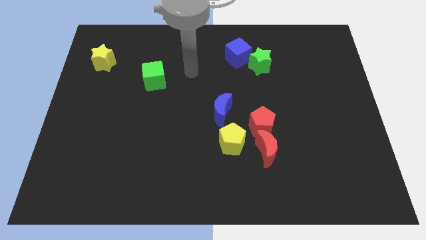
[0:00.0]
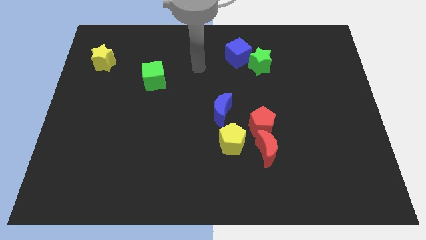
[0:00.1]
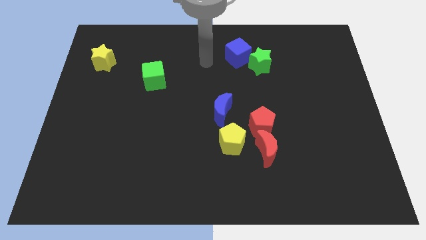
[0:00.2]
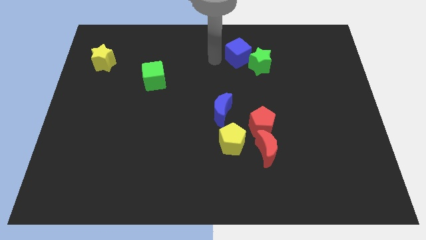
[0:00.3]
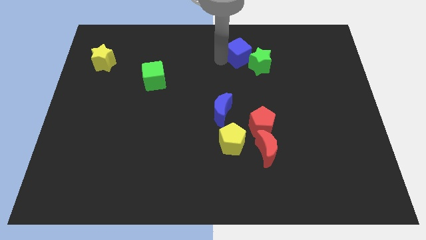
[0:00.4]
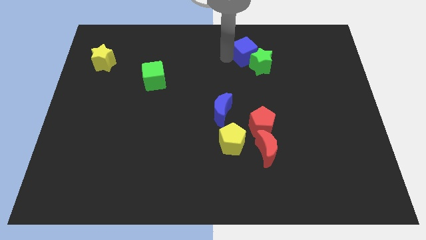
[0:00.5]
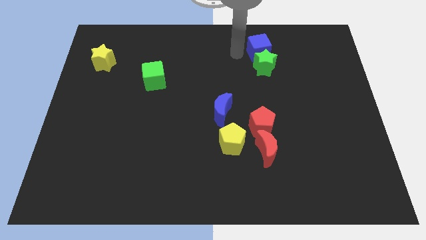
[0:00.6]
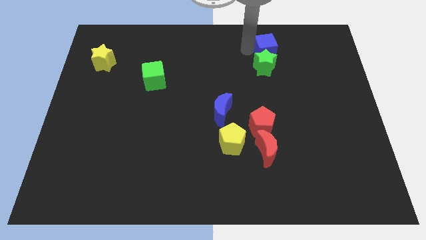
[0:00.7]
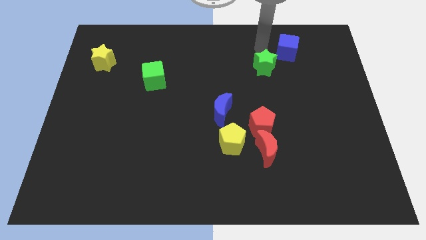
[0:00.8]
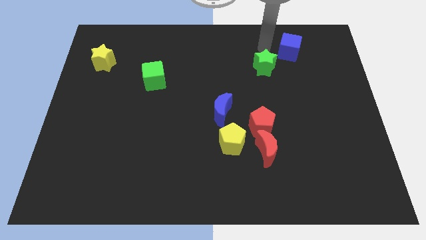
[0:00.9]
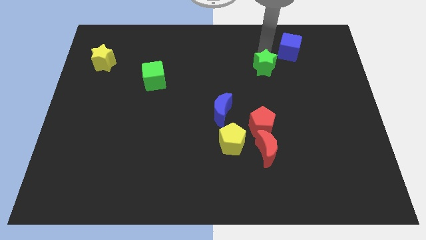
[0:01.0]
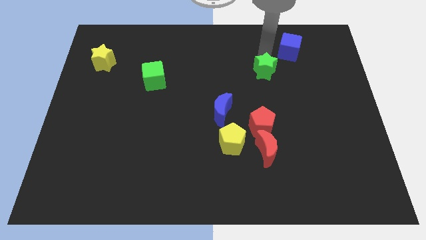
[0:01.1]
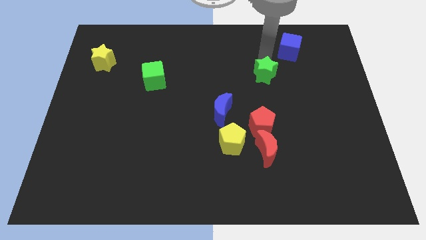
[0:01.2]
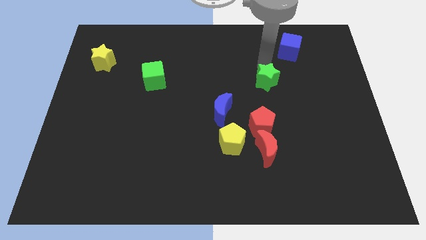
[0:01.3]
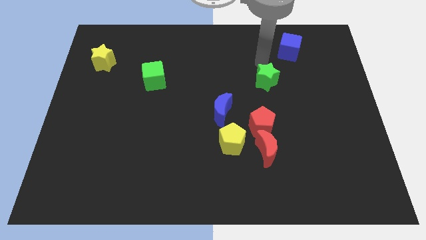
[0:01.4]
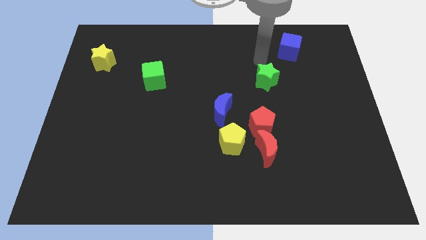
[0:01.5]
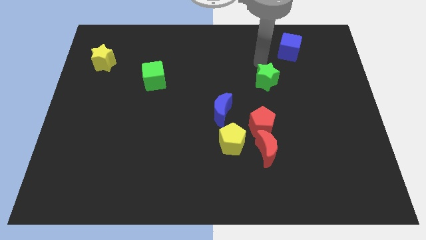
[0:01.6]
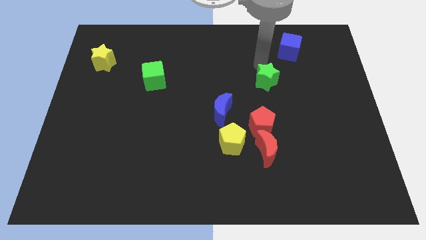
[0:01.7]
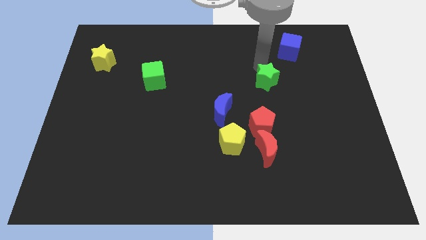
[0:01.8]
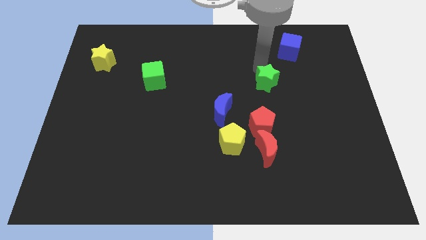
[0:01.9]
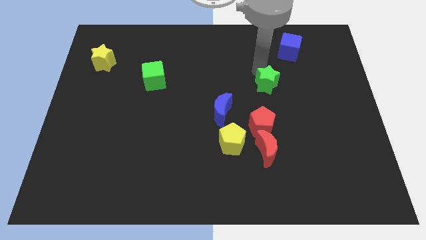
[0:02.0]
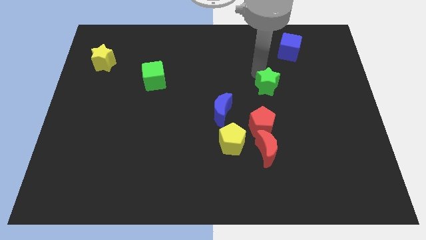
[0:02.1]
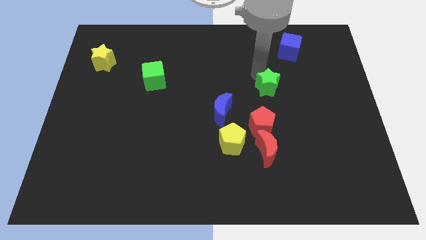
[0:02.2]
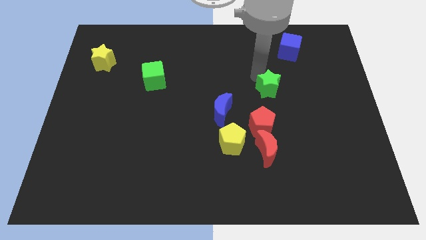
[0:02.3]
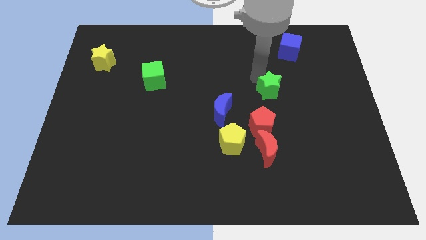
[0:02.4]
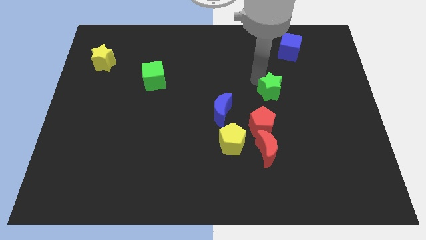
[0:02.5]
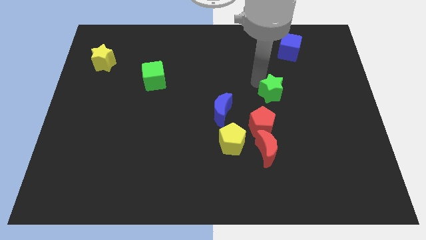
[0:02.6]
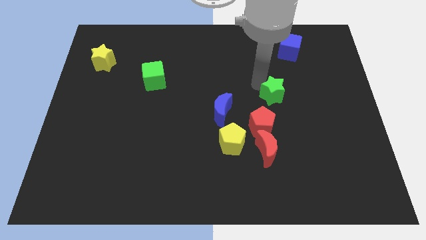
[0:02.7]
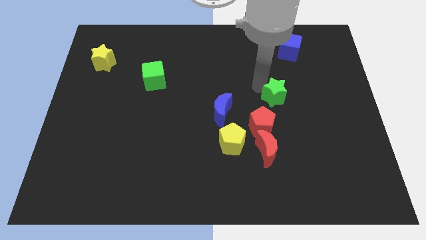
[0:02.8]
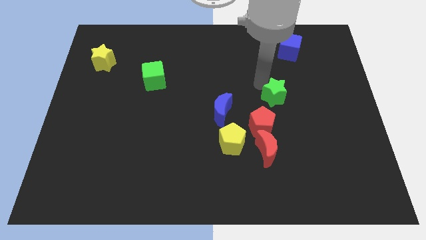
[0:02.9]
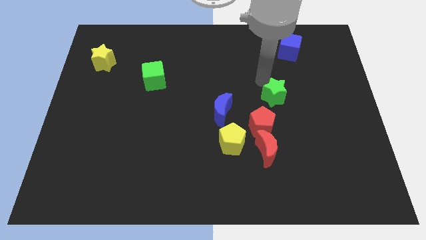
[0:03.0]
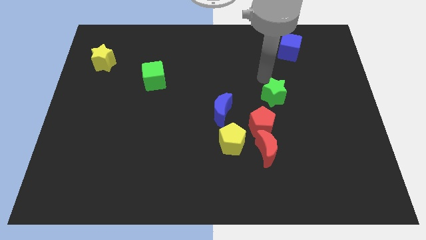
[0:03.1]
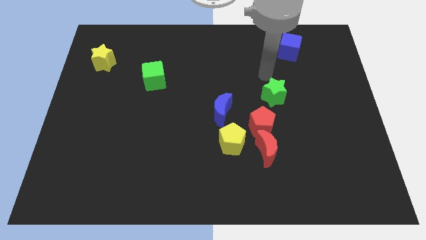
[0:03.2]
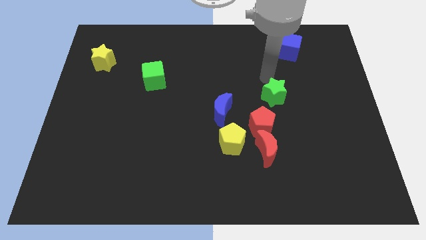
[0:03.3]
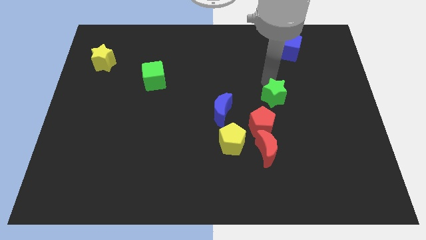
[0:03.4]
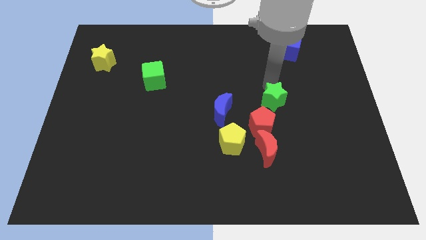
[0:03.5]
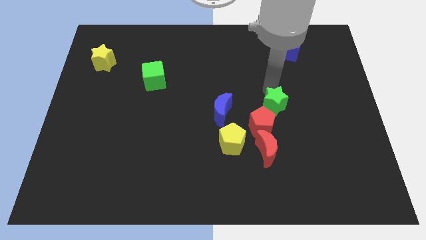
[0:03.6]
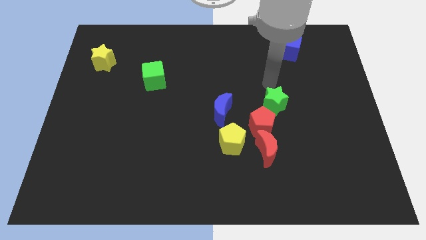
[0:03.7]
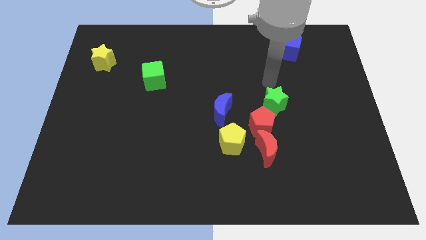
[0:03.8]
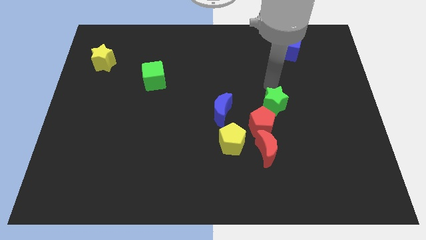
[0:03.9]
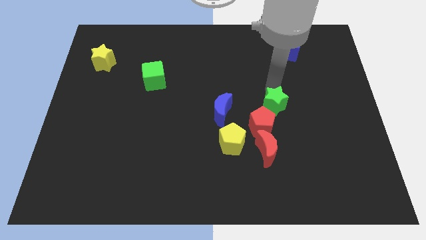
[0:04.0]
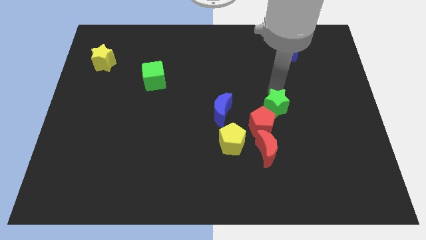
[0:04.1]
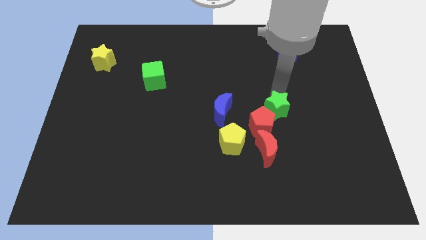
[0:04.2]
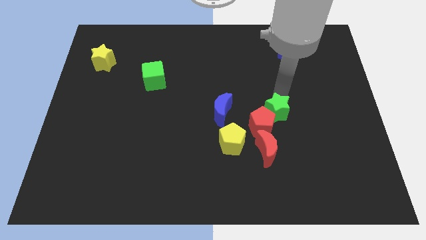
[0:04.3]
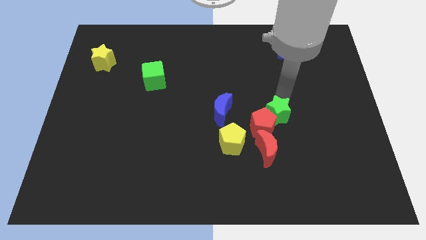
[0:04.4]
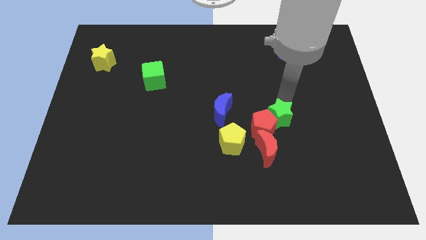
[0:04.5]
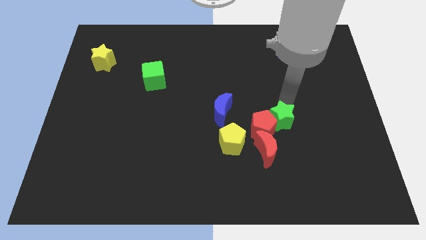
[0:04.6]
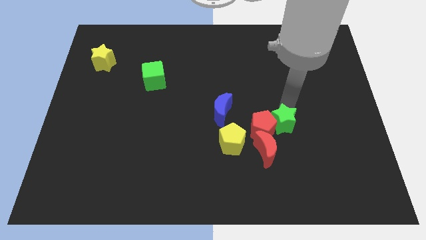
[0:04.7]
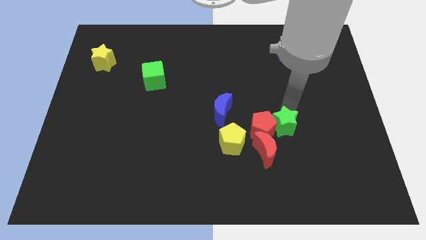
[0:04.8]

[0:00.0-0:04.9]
slide the green star to the right side of the yellow pentagon

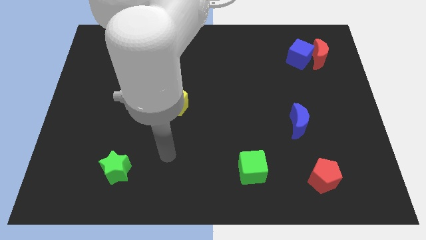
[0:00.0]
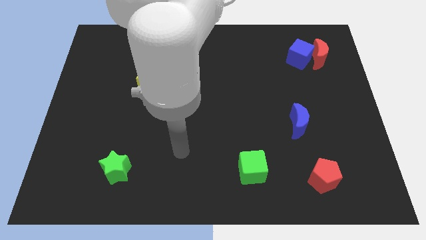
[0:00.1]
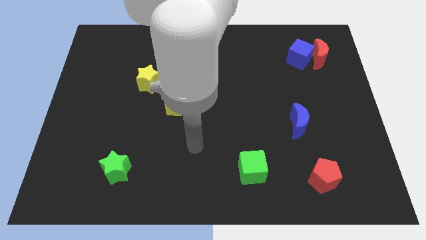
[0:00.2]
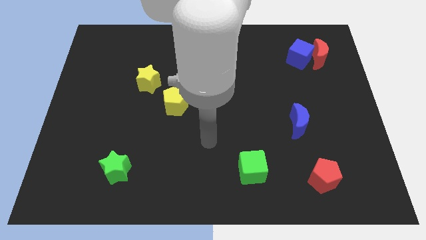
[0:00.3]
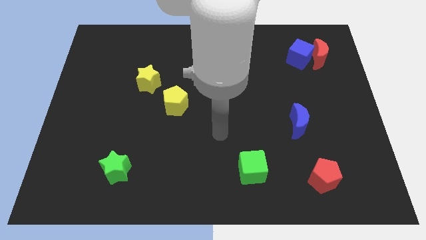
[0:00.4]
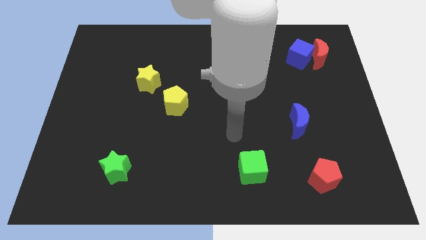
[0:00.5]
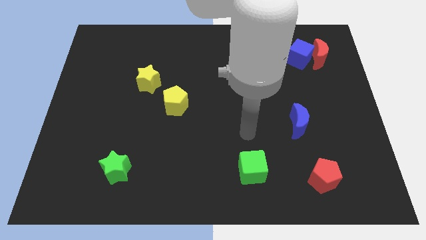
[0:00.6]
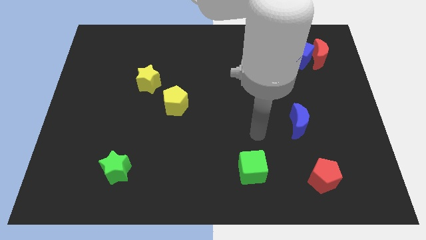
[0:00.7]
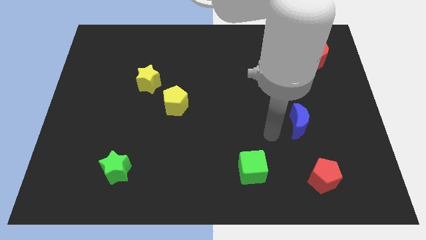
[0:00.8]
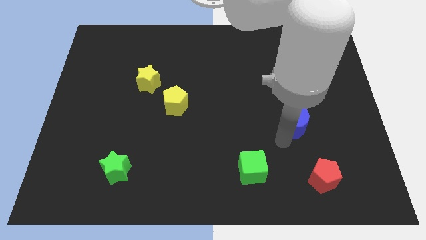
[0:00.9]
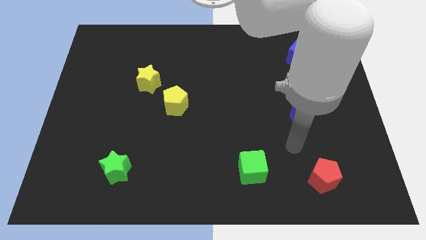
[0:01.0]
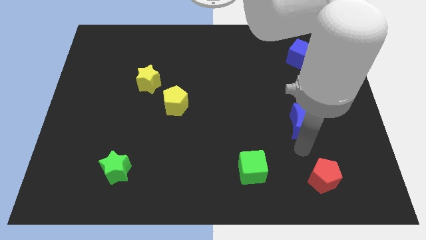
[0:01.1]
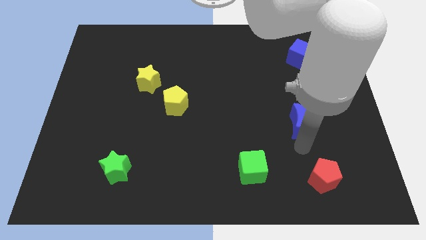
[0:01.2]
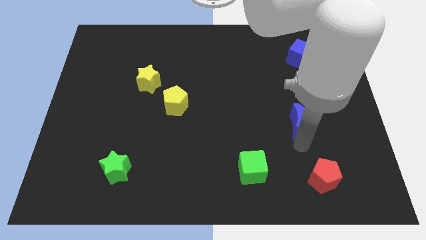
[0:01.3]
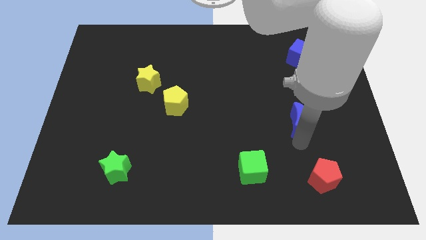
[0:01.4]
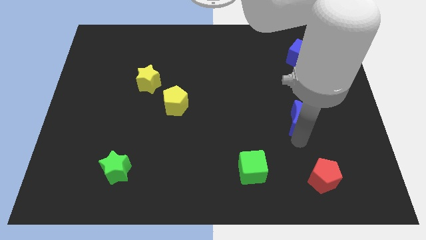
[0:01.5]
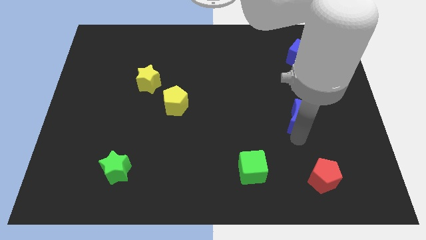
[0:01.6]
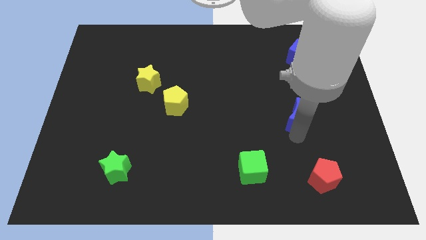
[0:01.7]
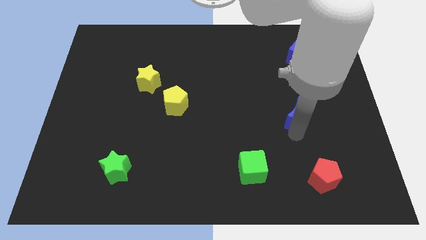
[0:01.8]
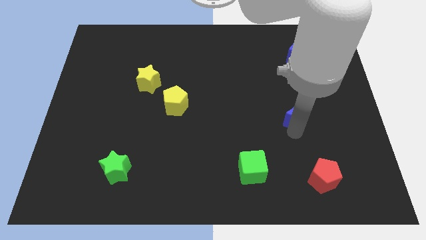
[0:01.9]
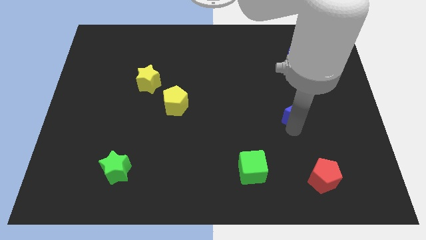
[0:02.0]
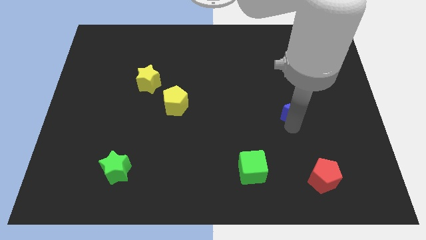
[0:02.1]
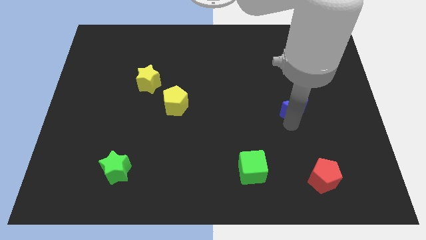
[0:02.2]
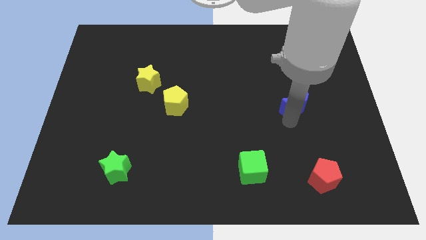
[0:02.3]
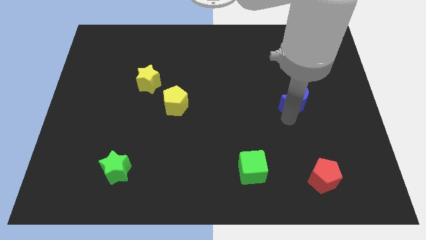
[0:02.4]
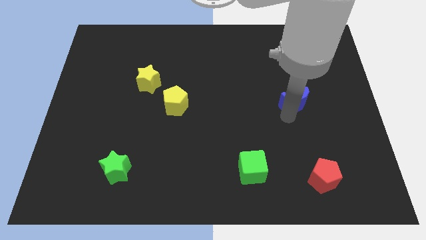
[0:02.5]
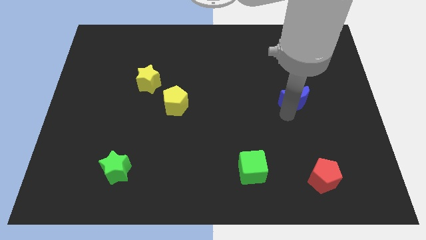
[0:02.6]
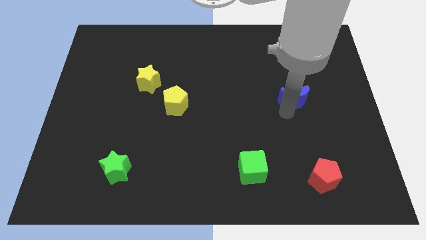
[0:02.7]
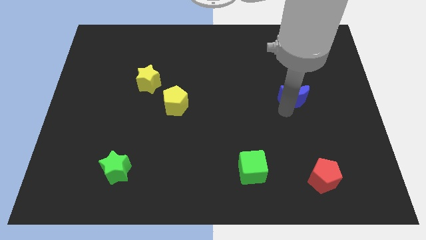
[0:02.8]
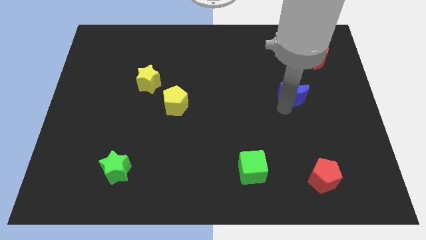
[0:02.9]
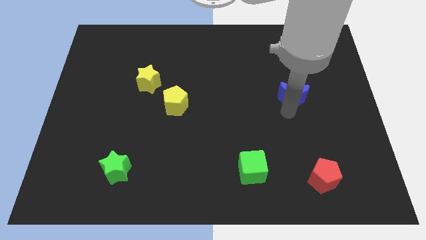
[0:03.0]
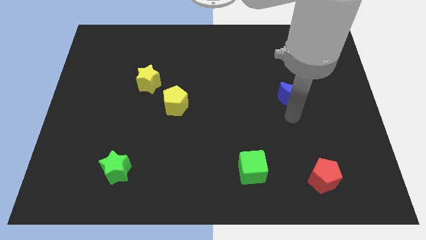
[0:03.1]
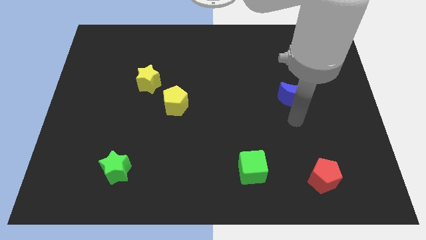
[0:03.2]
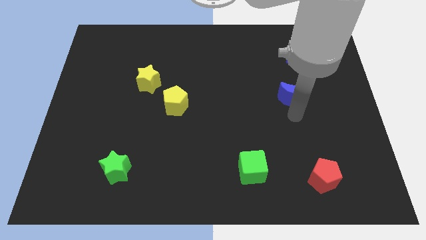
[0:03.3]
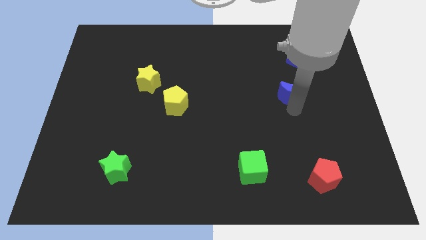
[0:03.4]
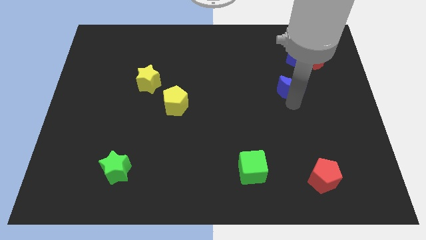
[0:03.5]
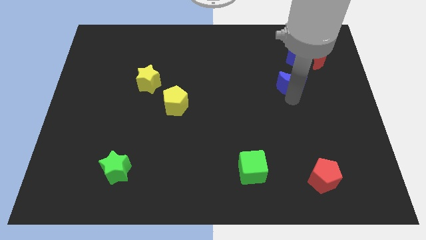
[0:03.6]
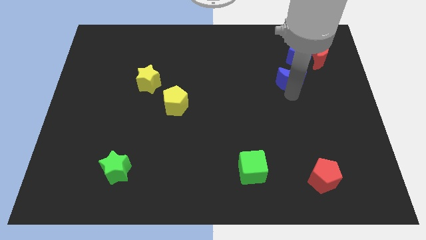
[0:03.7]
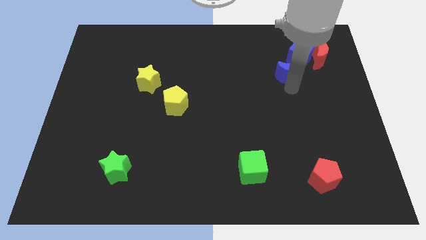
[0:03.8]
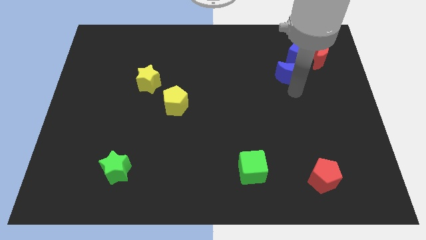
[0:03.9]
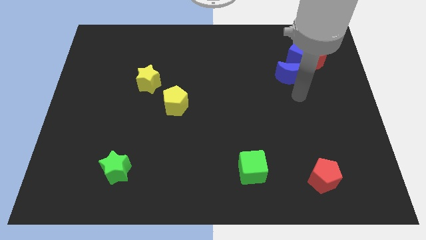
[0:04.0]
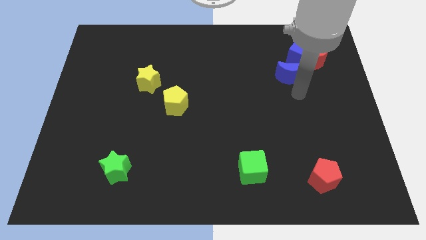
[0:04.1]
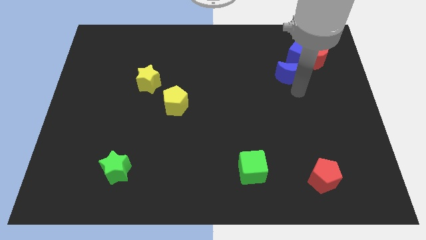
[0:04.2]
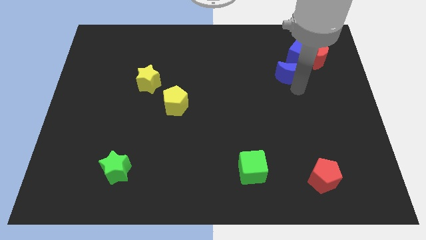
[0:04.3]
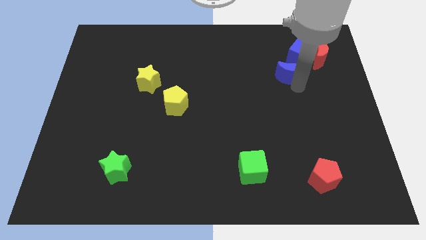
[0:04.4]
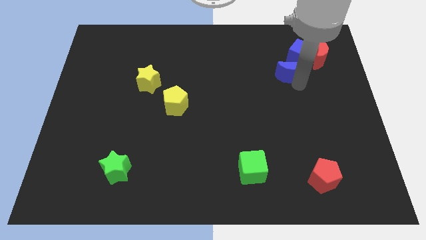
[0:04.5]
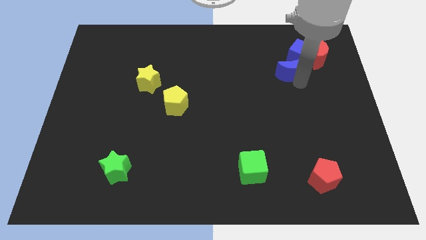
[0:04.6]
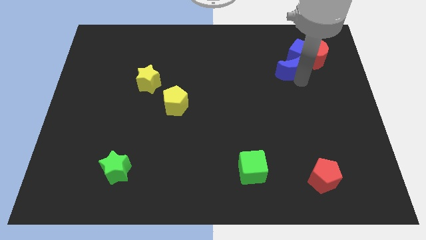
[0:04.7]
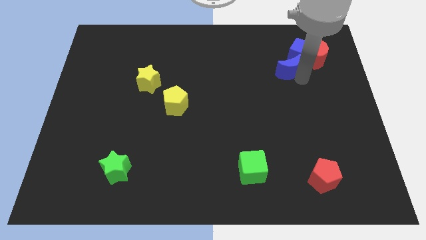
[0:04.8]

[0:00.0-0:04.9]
push the blue moon to the left side of the red moon
